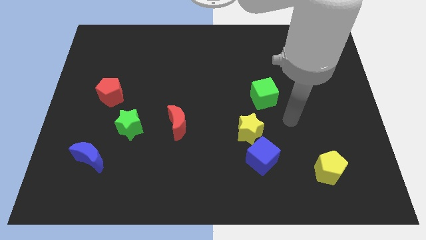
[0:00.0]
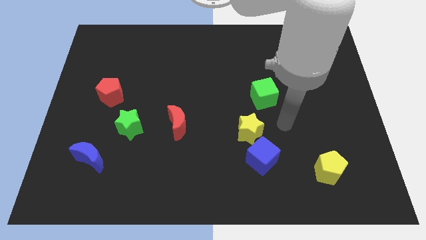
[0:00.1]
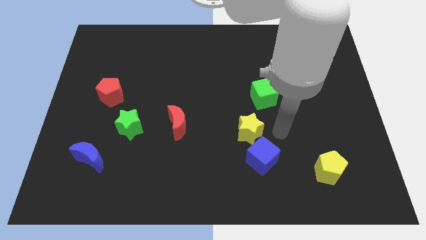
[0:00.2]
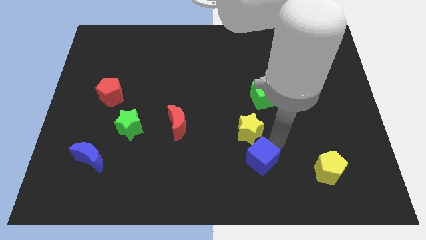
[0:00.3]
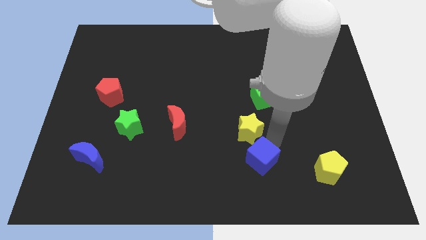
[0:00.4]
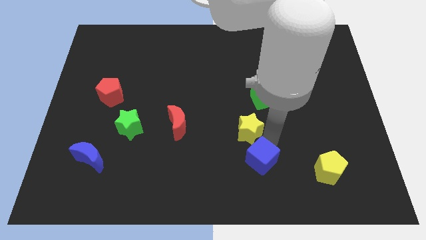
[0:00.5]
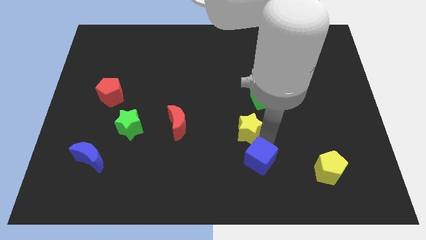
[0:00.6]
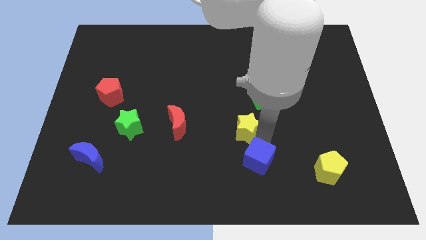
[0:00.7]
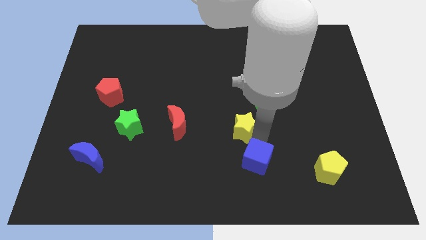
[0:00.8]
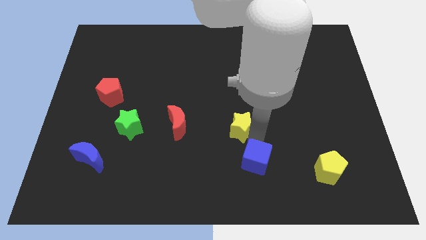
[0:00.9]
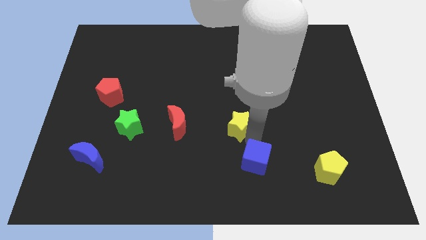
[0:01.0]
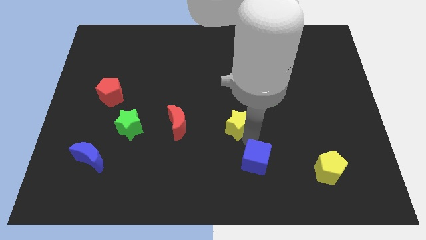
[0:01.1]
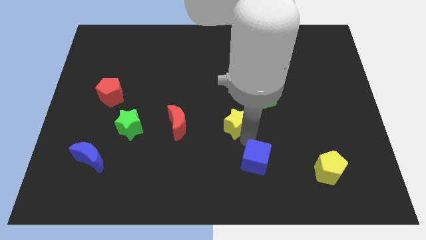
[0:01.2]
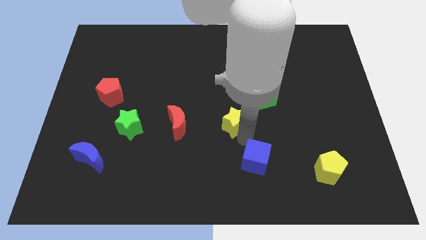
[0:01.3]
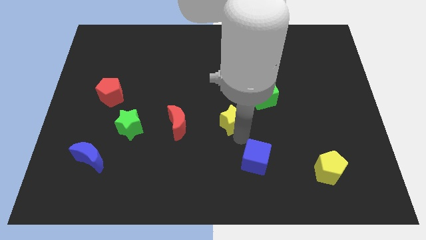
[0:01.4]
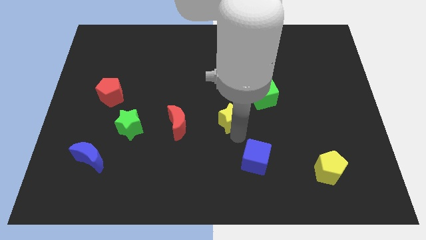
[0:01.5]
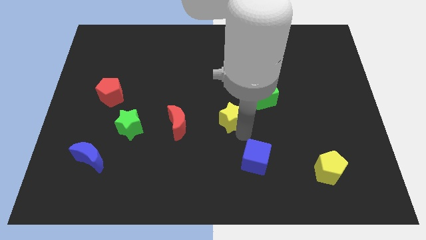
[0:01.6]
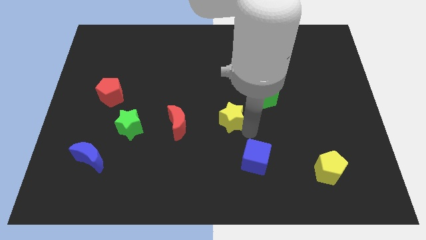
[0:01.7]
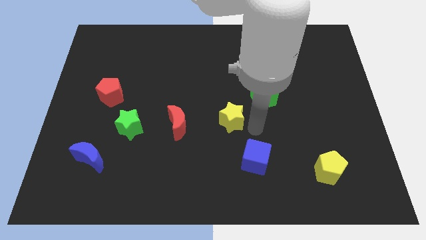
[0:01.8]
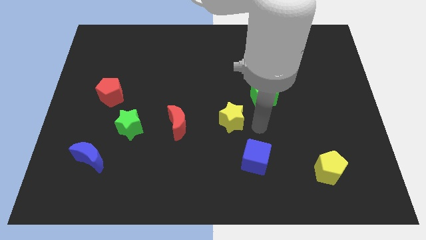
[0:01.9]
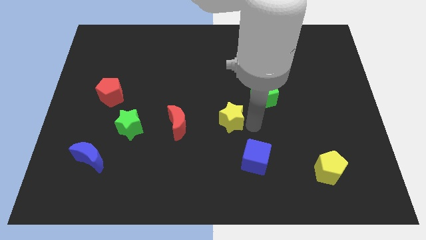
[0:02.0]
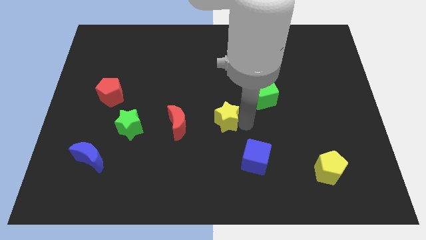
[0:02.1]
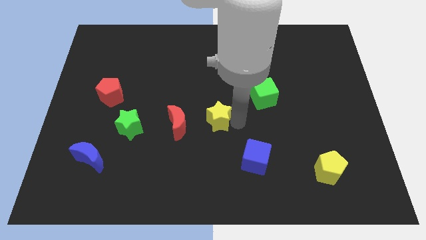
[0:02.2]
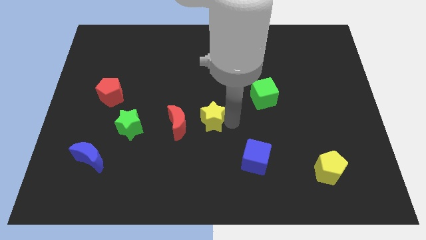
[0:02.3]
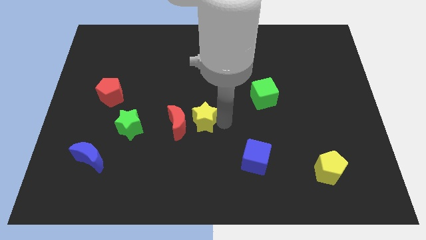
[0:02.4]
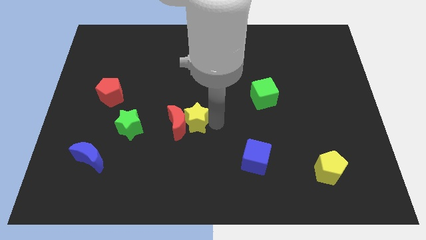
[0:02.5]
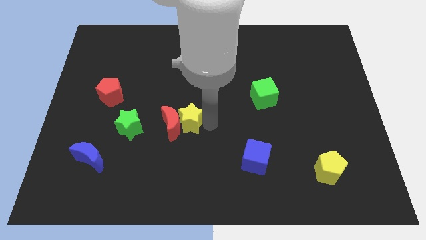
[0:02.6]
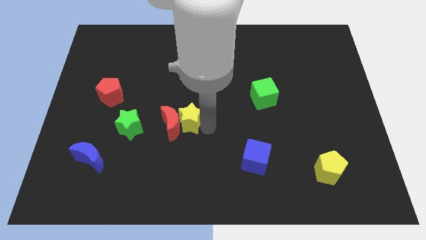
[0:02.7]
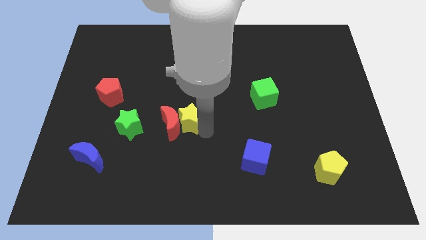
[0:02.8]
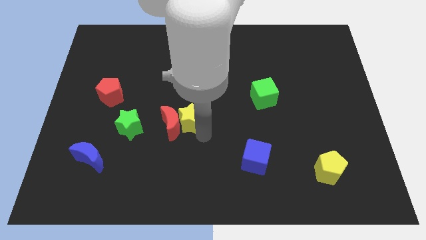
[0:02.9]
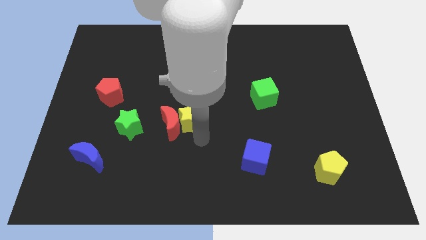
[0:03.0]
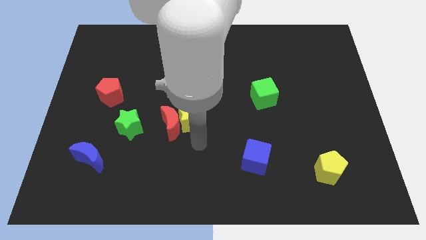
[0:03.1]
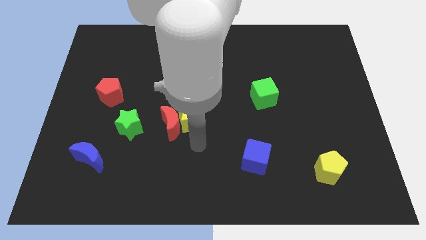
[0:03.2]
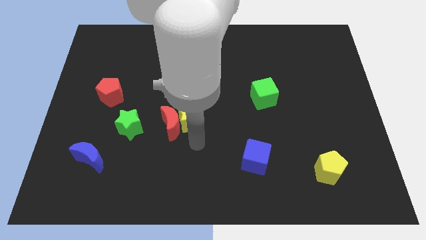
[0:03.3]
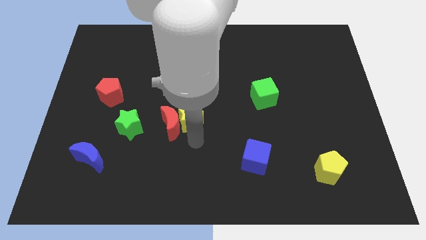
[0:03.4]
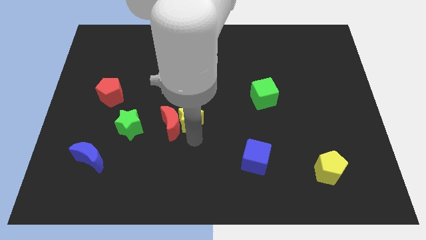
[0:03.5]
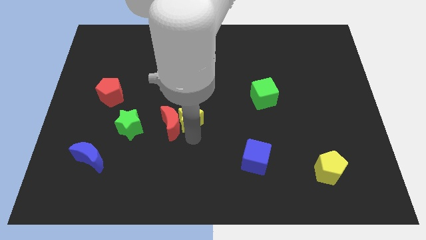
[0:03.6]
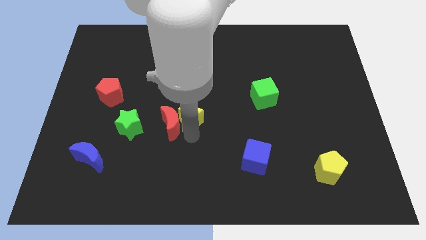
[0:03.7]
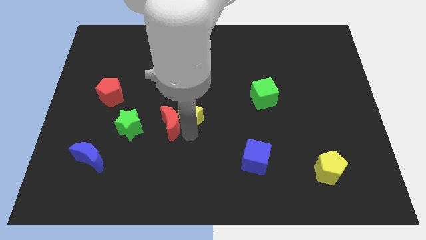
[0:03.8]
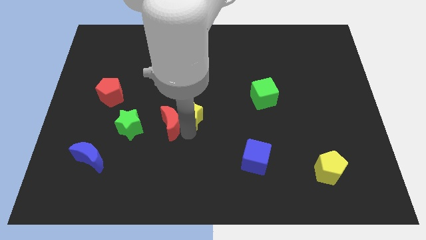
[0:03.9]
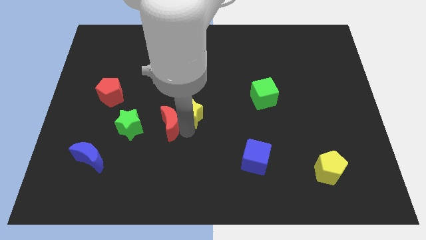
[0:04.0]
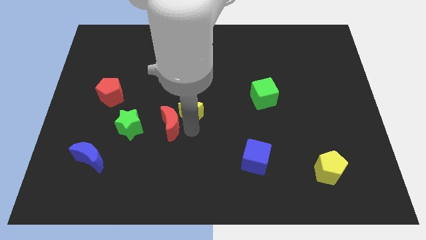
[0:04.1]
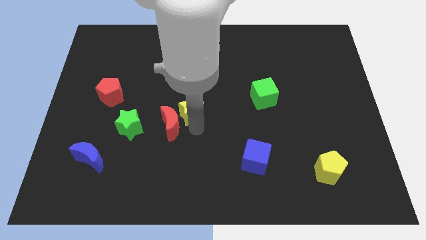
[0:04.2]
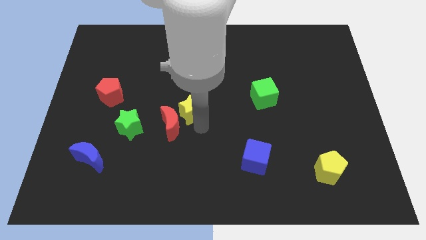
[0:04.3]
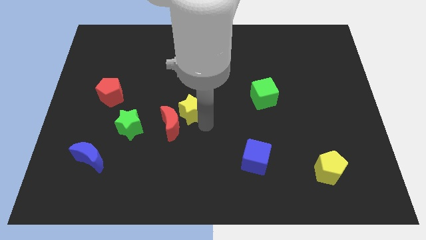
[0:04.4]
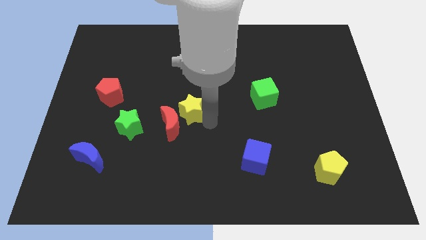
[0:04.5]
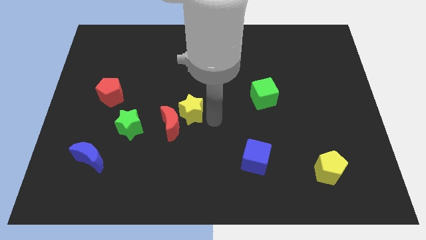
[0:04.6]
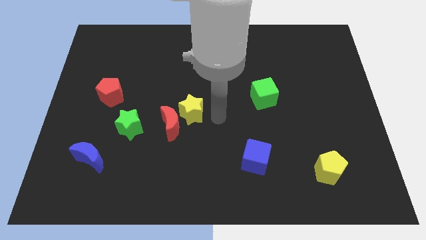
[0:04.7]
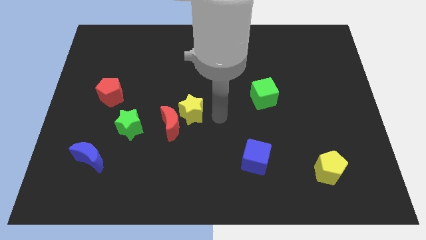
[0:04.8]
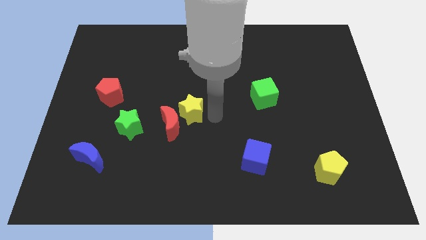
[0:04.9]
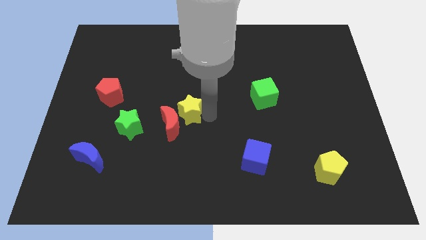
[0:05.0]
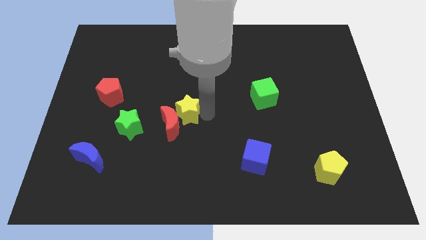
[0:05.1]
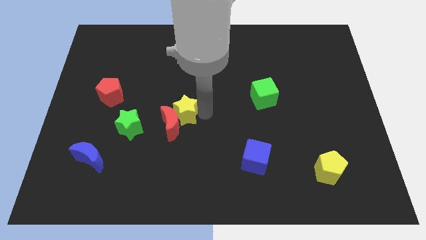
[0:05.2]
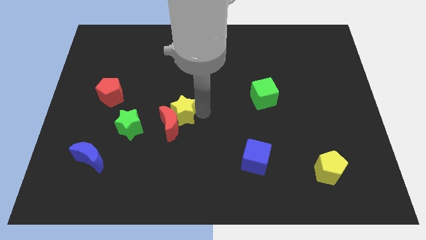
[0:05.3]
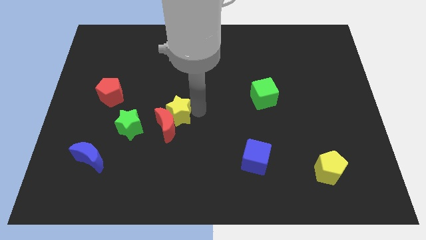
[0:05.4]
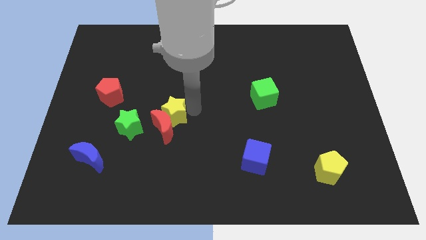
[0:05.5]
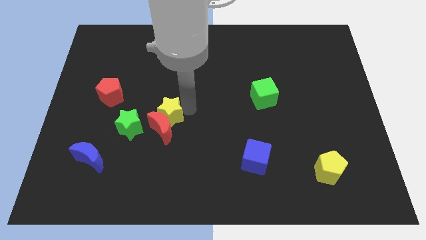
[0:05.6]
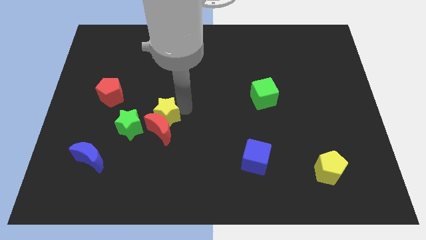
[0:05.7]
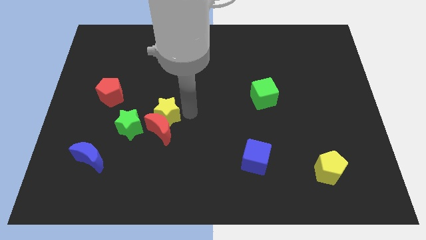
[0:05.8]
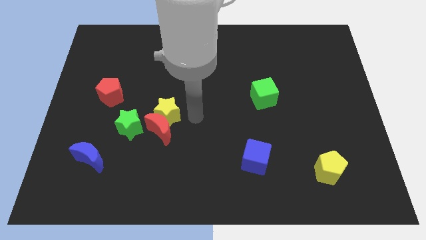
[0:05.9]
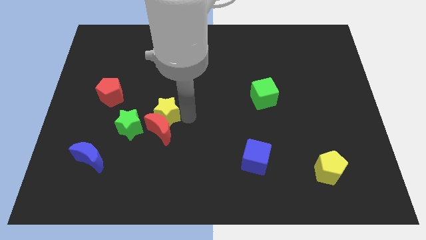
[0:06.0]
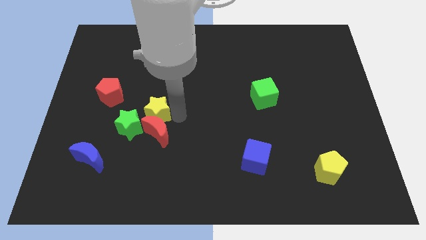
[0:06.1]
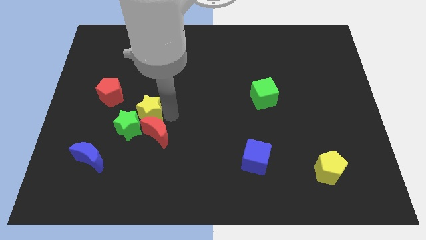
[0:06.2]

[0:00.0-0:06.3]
slide the yellow star diagonally down and to the right of the red pentagon
